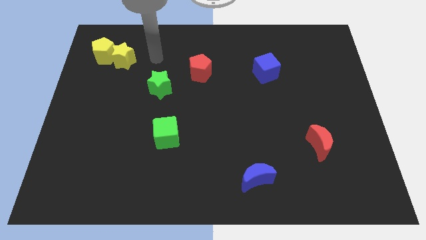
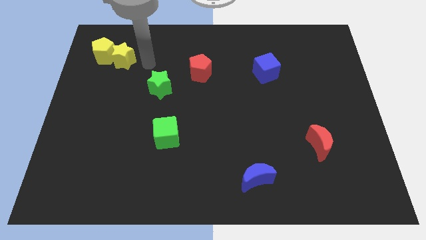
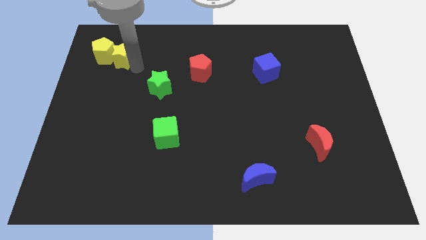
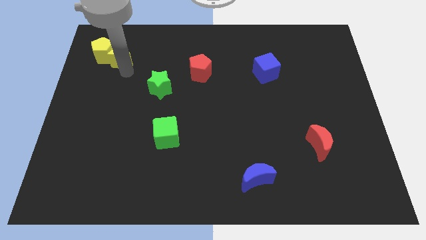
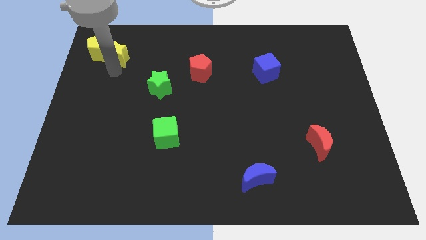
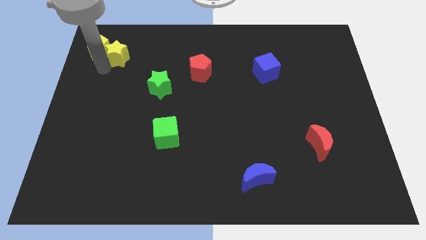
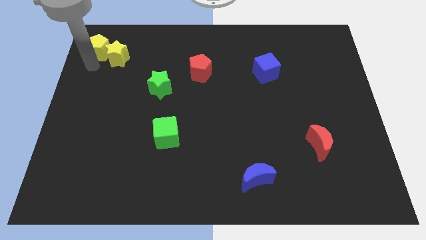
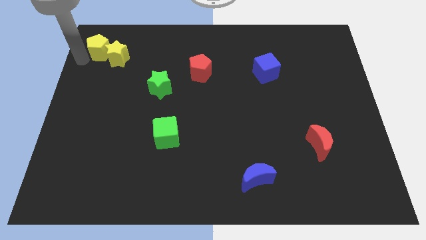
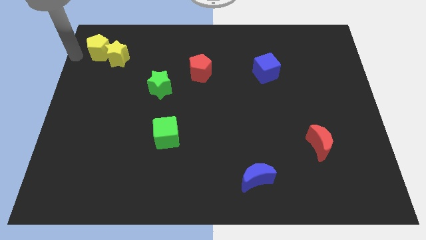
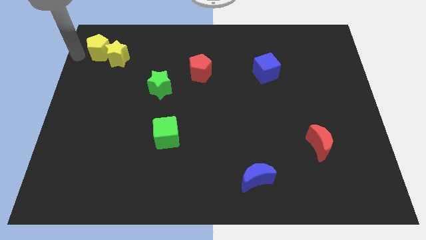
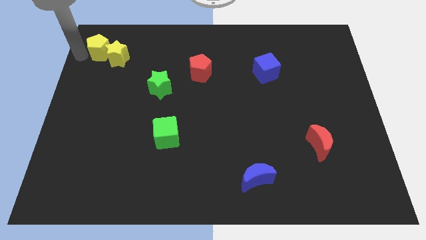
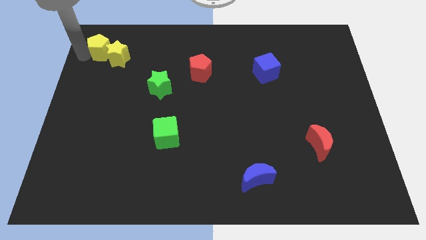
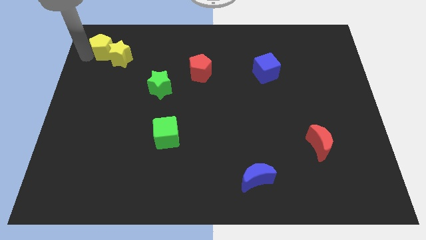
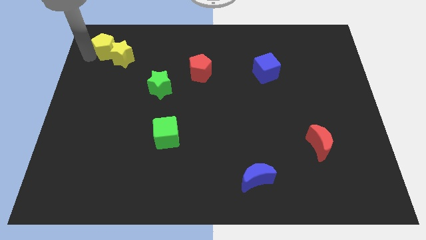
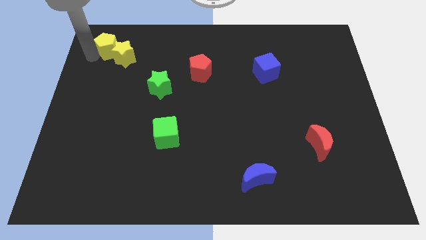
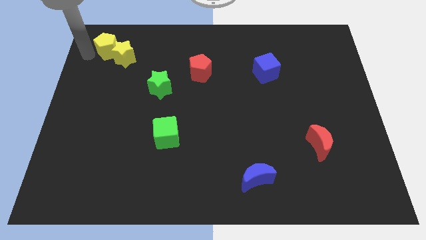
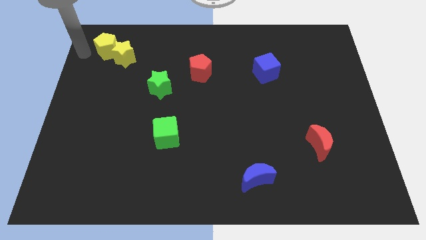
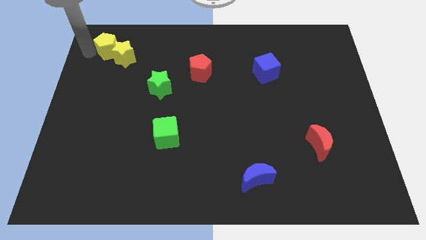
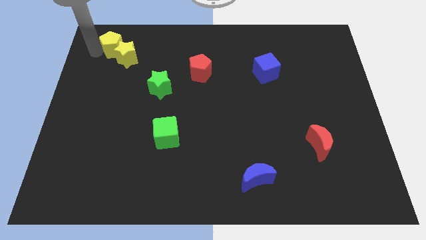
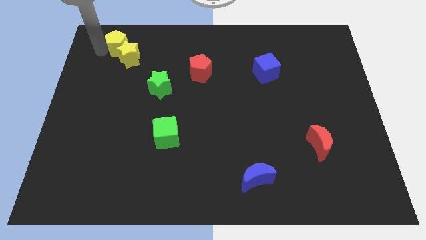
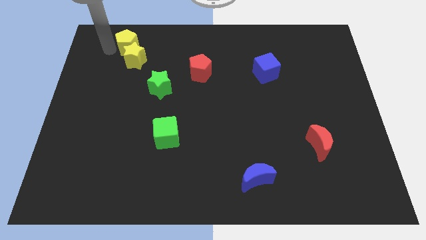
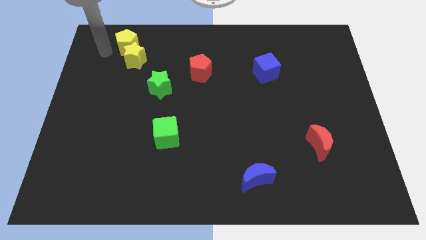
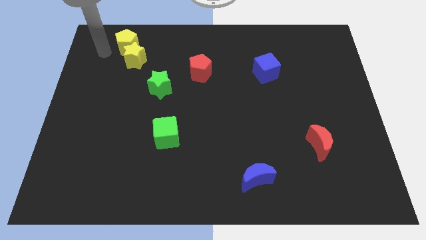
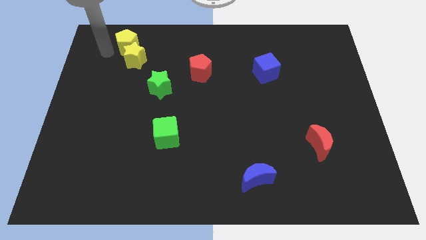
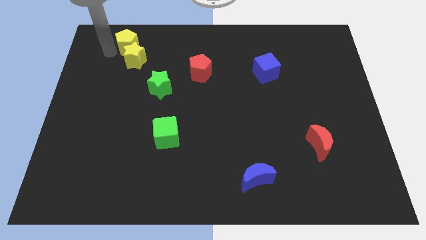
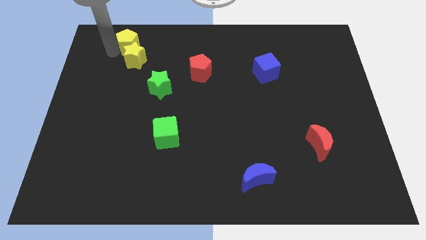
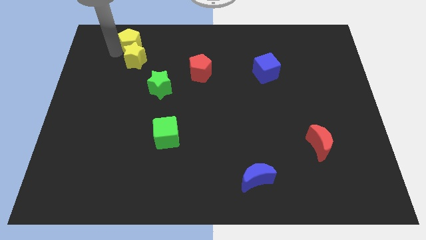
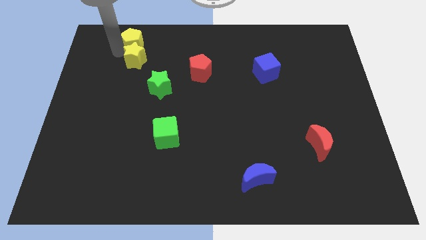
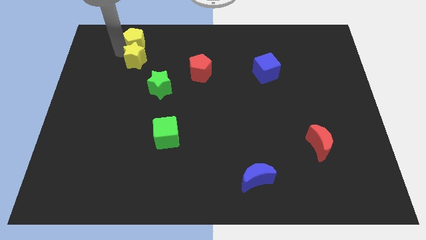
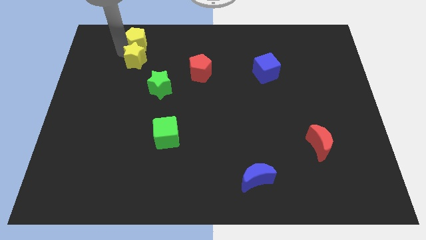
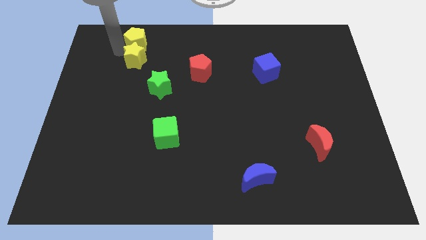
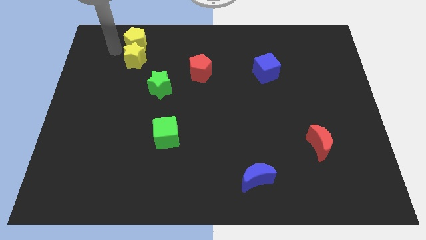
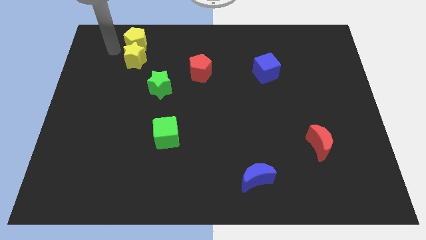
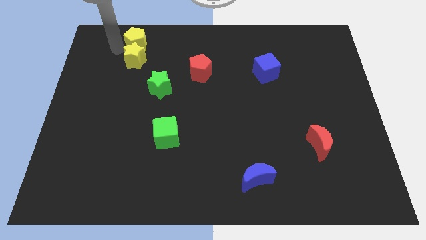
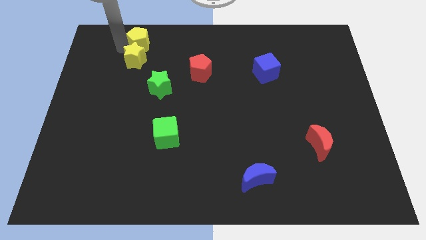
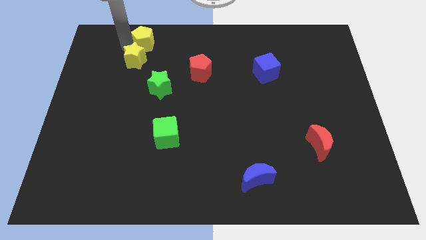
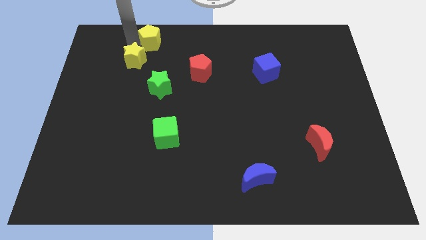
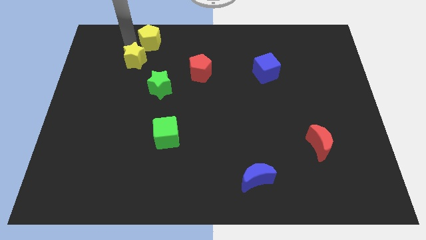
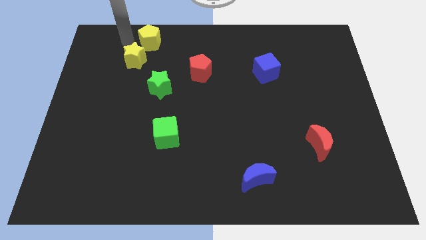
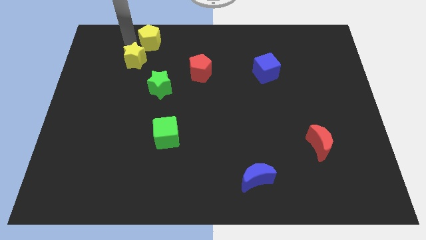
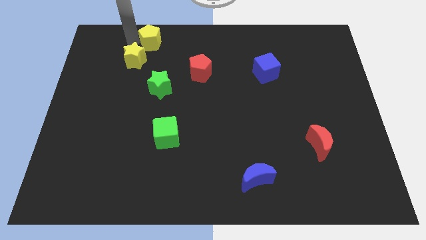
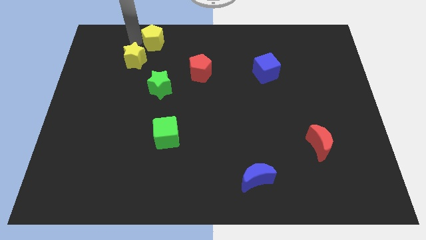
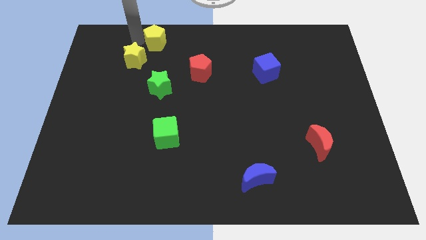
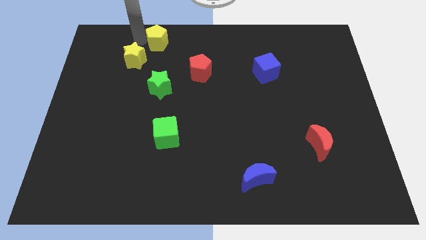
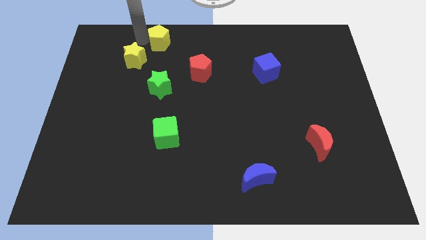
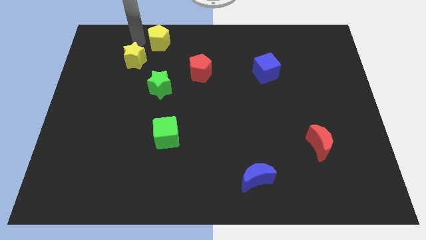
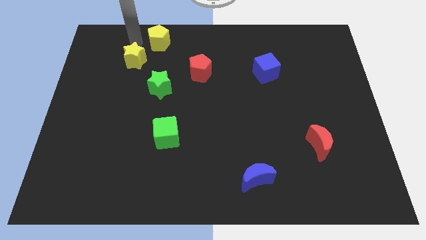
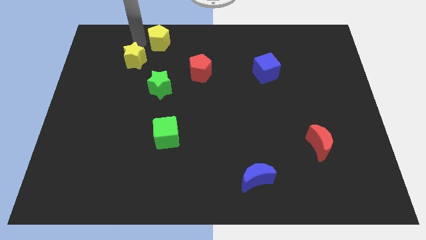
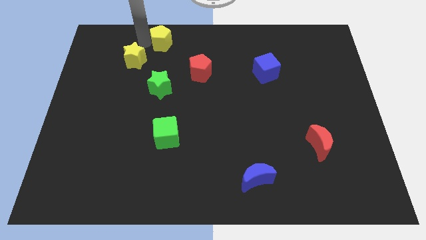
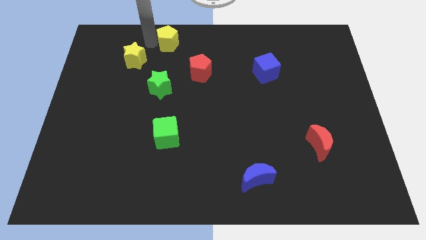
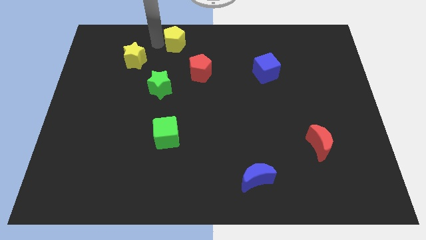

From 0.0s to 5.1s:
put the yellow pentagon to the top side

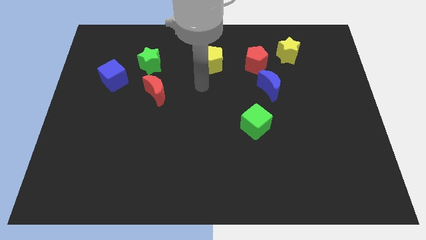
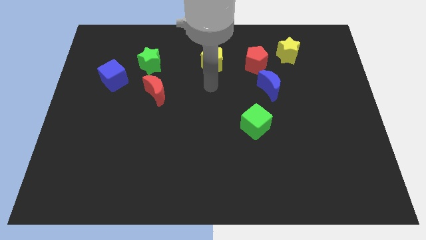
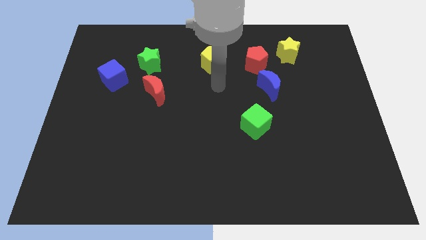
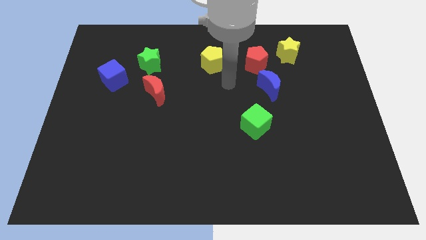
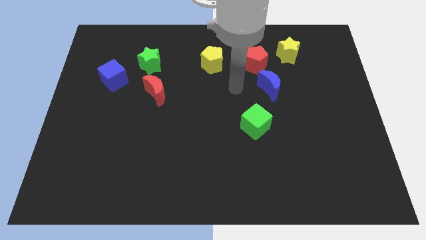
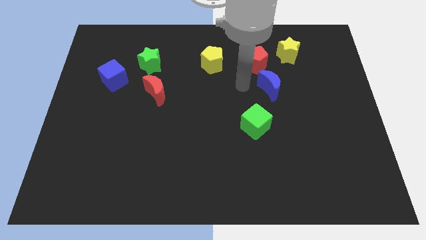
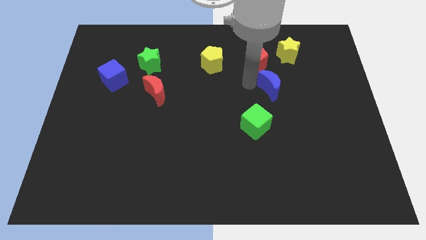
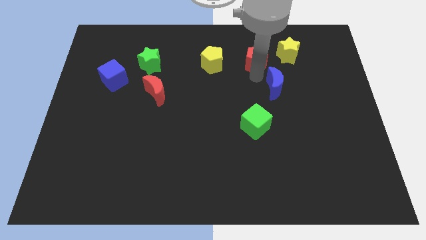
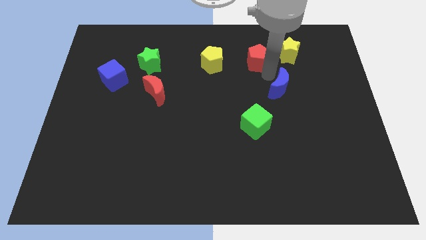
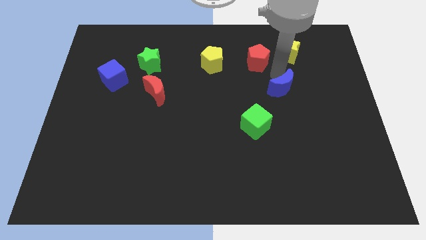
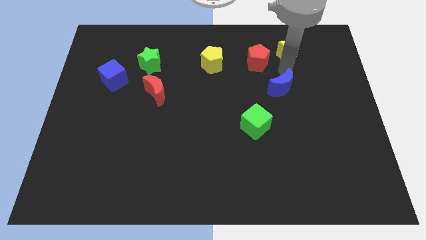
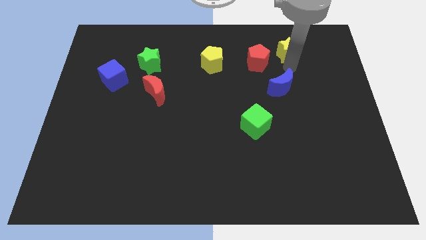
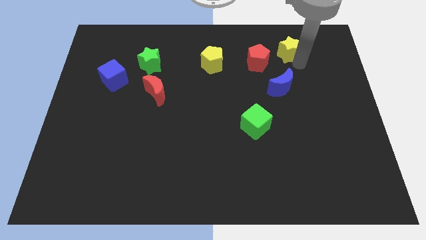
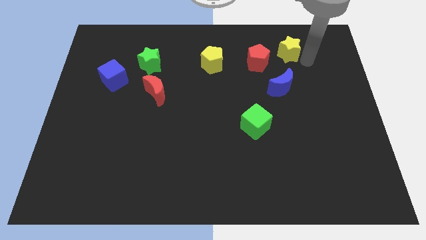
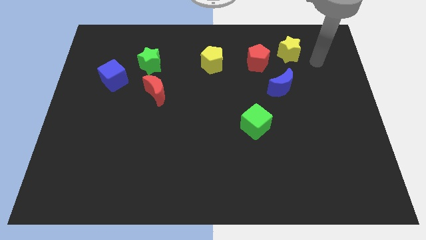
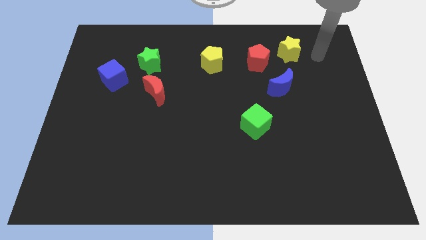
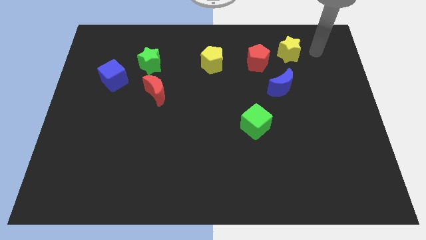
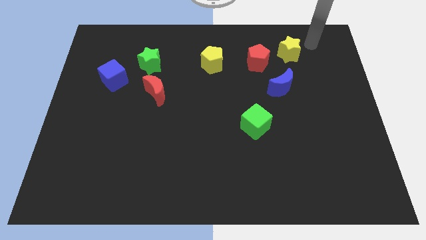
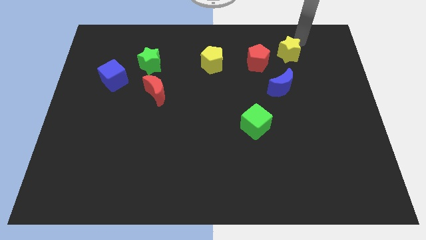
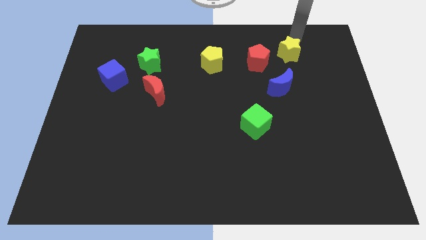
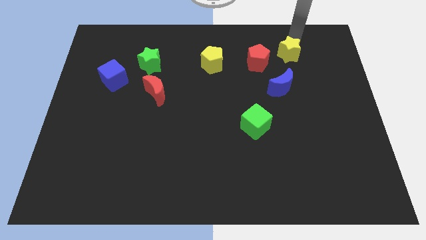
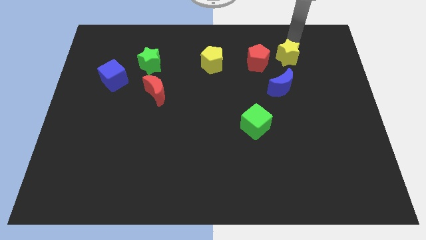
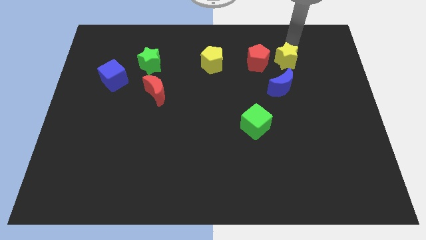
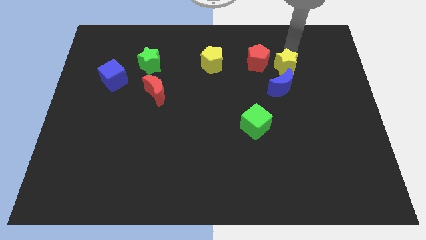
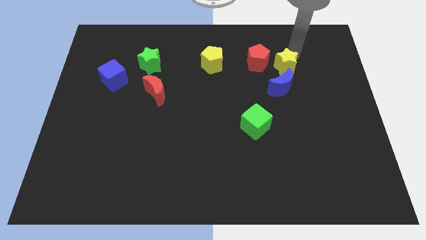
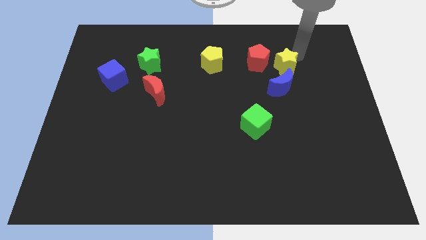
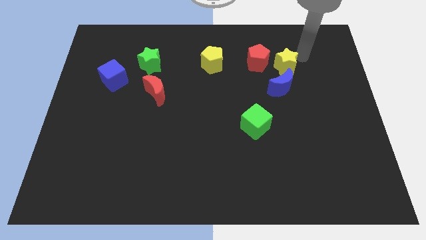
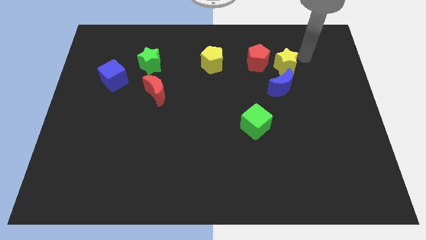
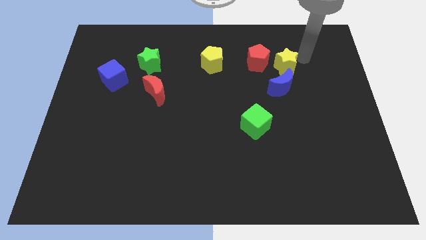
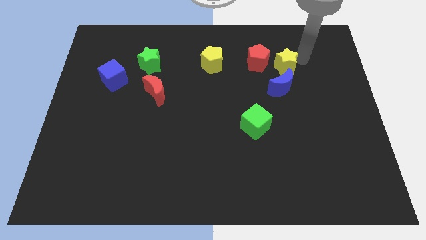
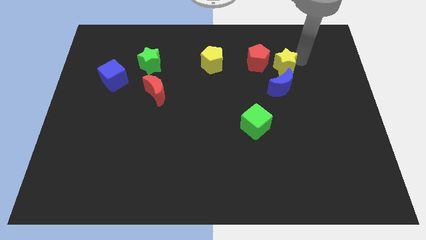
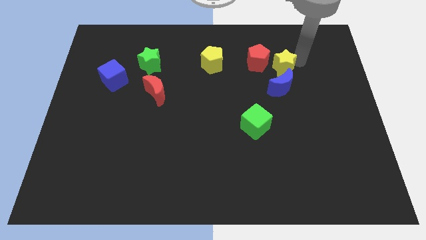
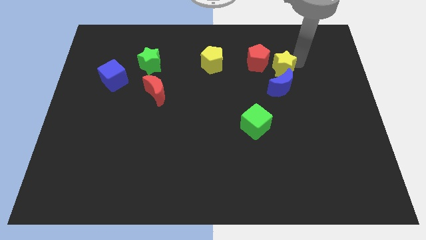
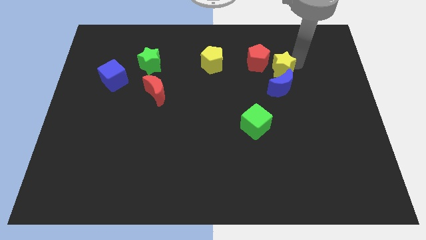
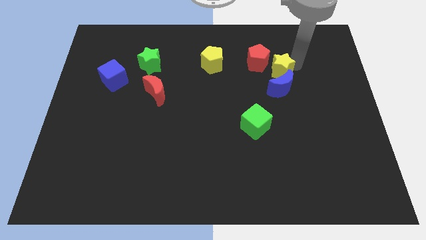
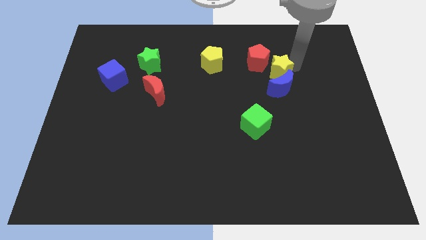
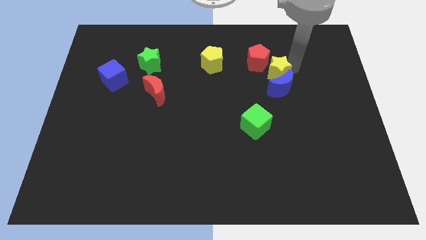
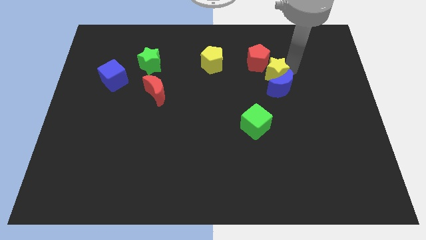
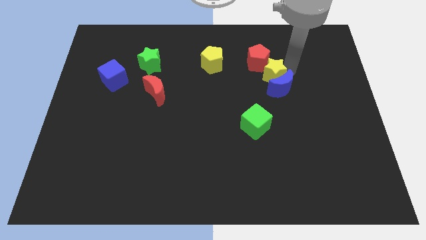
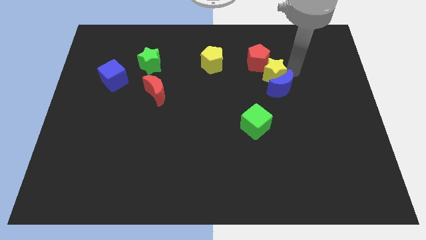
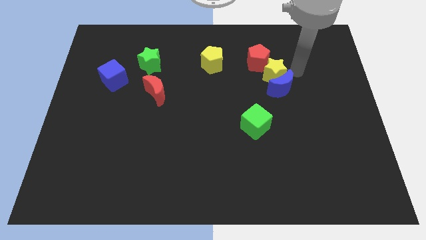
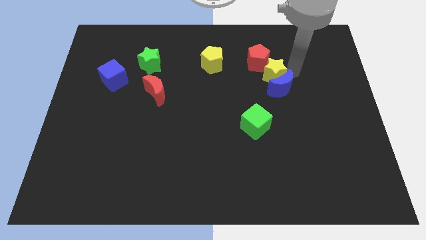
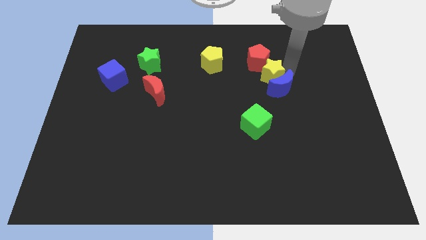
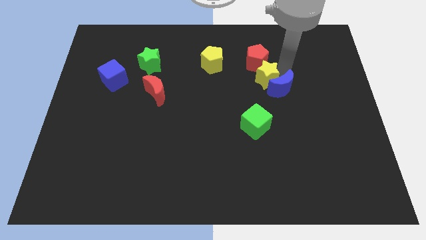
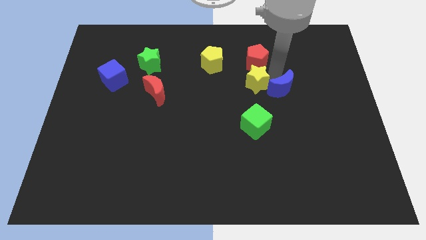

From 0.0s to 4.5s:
slide the yellow star to the middle
